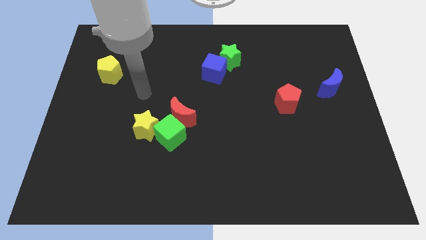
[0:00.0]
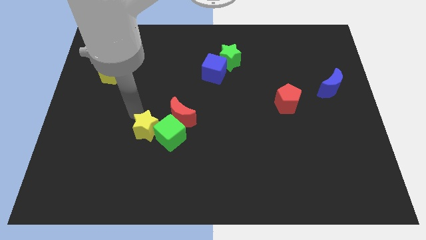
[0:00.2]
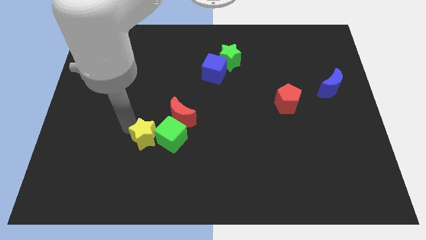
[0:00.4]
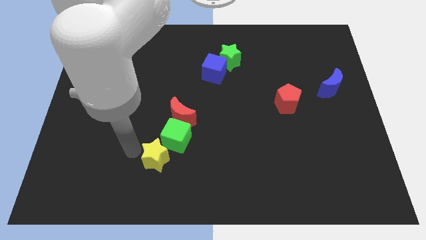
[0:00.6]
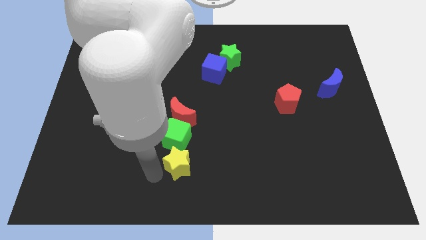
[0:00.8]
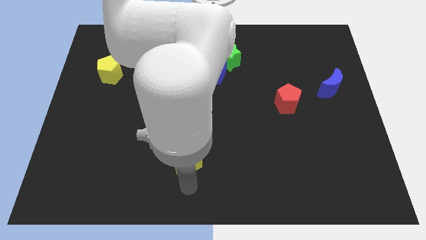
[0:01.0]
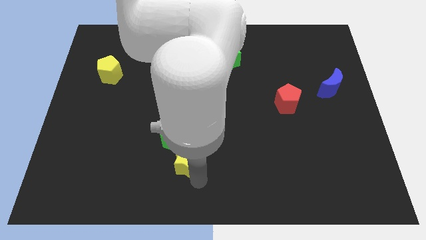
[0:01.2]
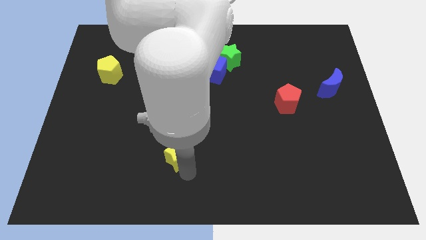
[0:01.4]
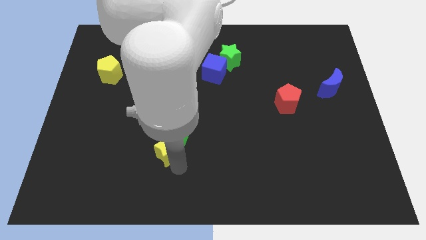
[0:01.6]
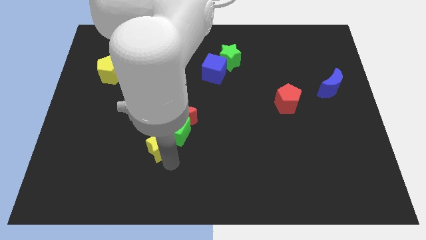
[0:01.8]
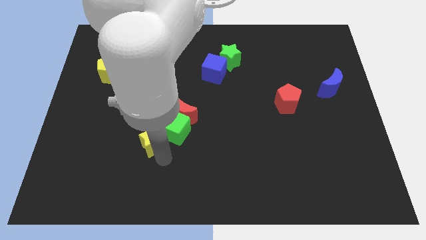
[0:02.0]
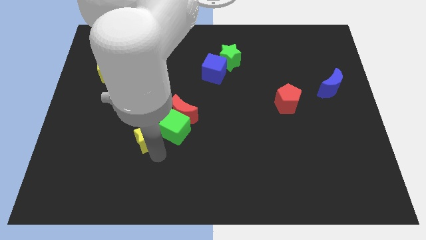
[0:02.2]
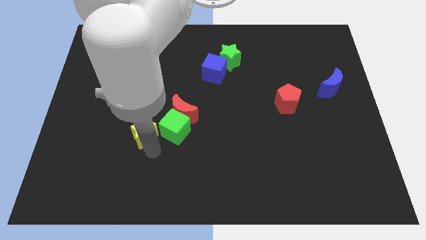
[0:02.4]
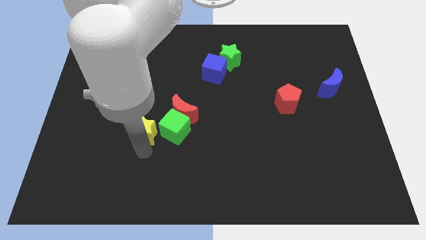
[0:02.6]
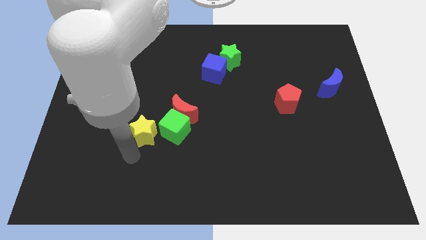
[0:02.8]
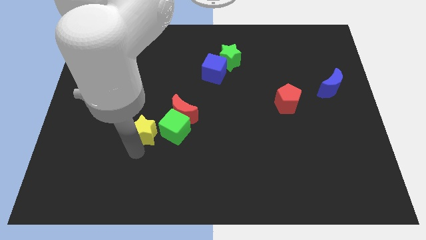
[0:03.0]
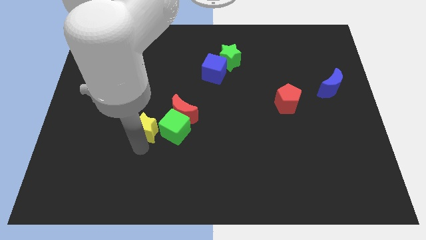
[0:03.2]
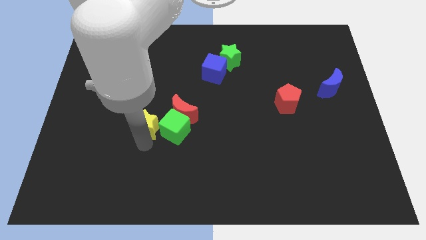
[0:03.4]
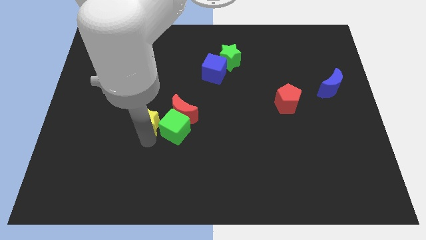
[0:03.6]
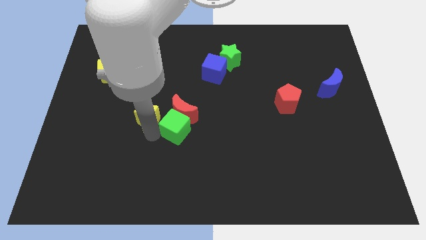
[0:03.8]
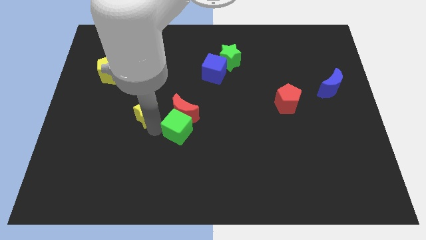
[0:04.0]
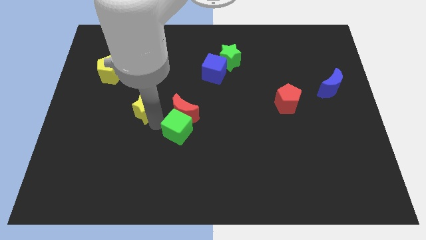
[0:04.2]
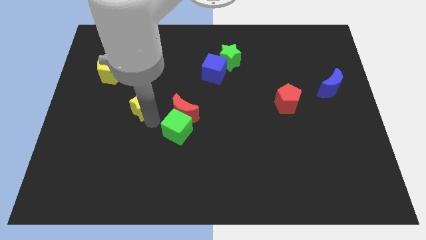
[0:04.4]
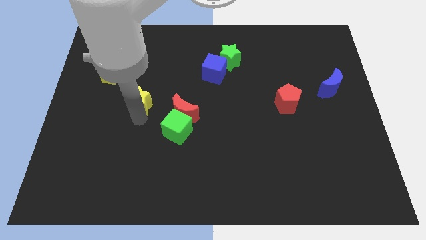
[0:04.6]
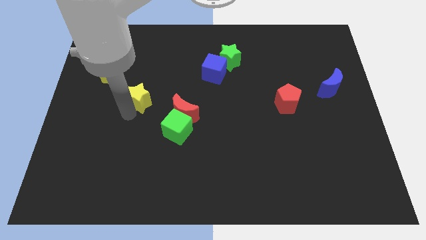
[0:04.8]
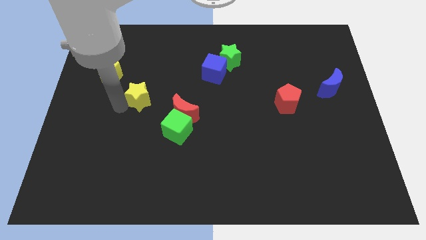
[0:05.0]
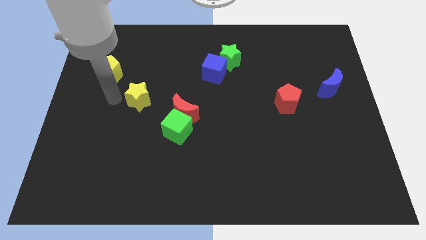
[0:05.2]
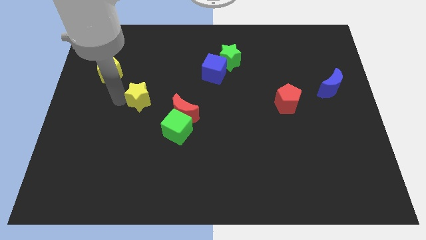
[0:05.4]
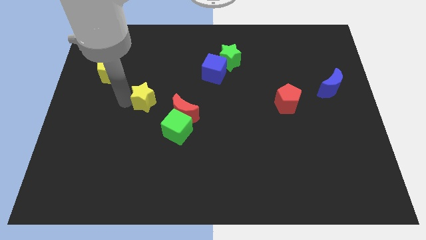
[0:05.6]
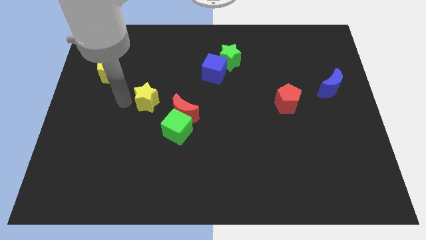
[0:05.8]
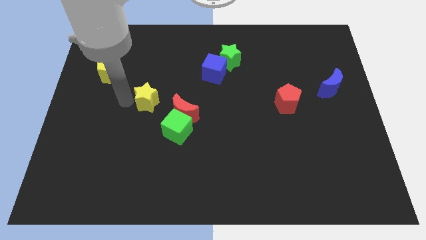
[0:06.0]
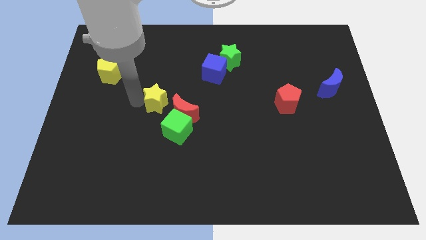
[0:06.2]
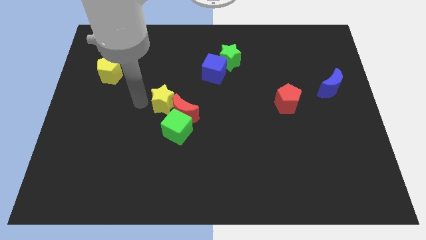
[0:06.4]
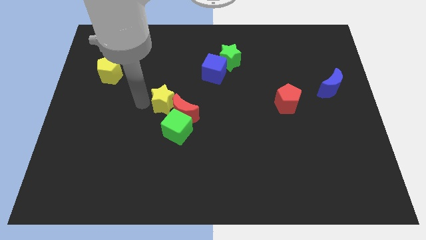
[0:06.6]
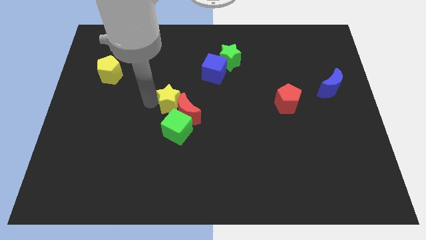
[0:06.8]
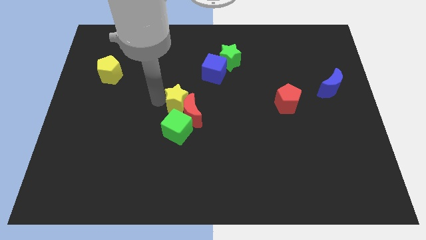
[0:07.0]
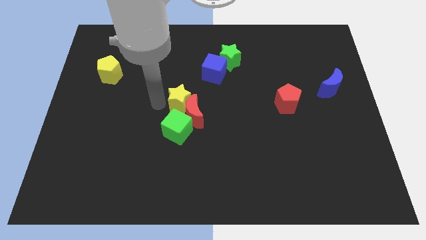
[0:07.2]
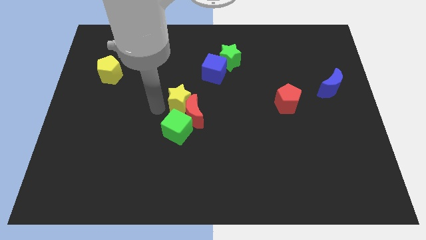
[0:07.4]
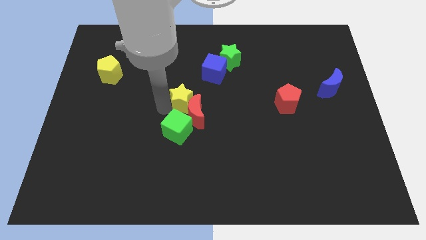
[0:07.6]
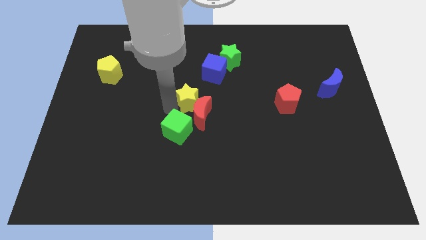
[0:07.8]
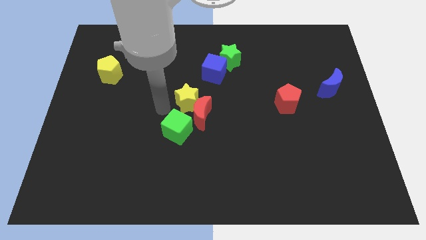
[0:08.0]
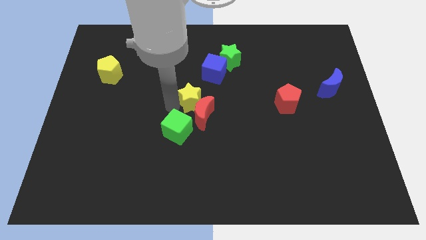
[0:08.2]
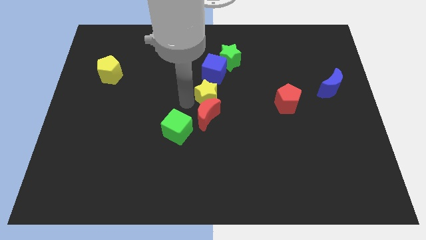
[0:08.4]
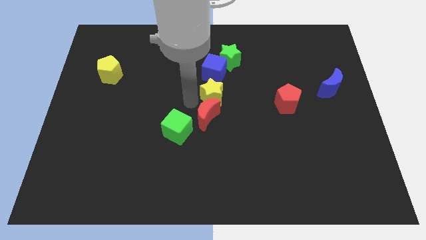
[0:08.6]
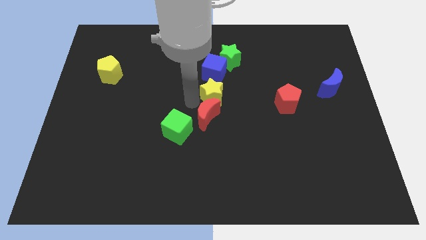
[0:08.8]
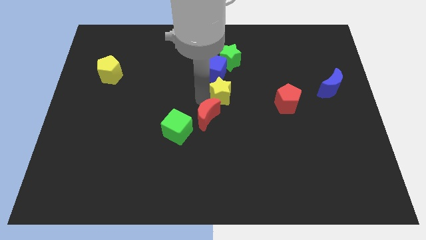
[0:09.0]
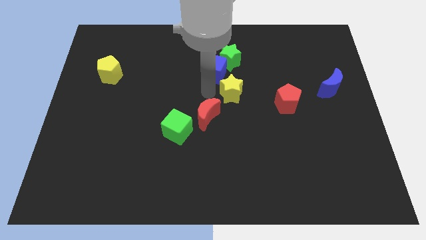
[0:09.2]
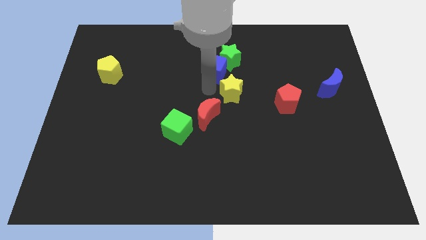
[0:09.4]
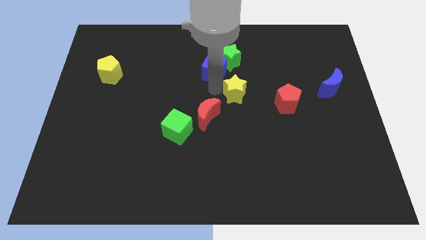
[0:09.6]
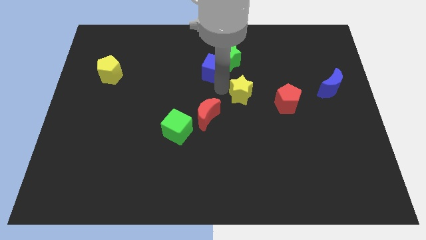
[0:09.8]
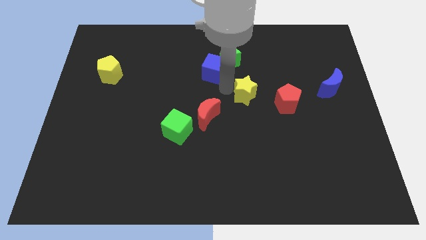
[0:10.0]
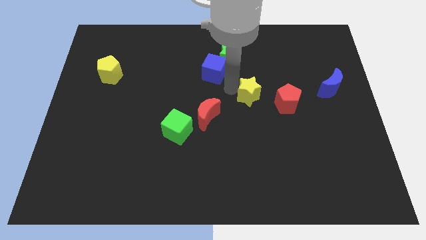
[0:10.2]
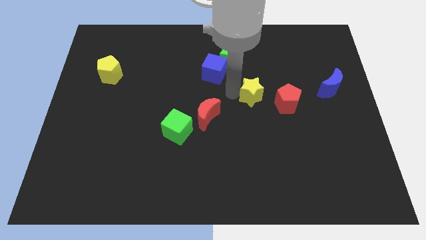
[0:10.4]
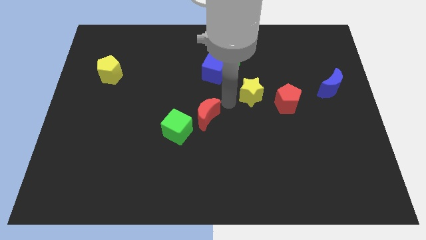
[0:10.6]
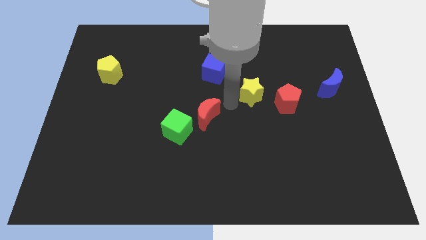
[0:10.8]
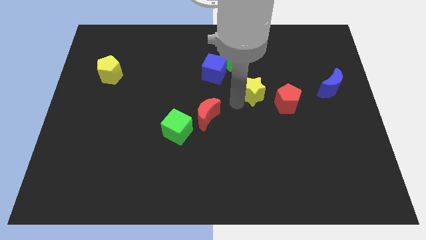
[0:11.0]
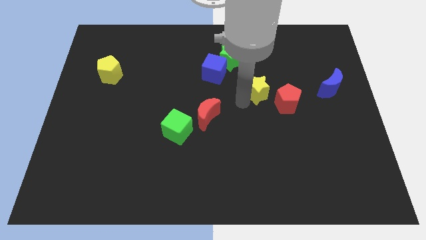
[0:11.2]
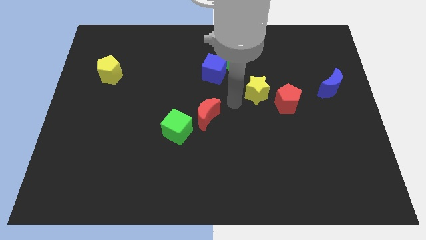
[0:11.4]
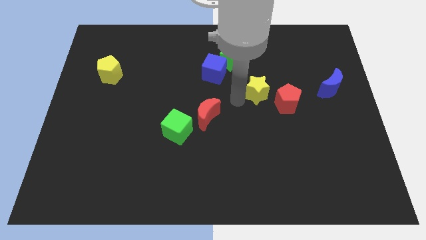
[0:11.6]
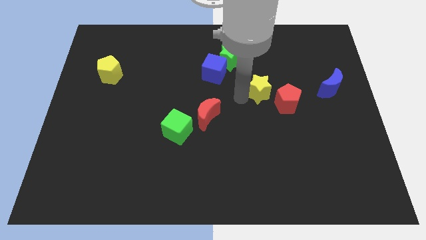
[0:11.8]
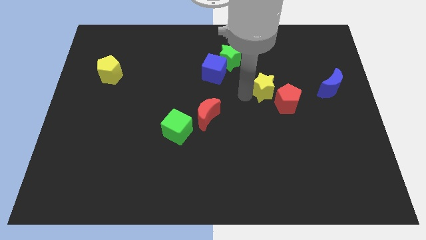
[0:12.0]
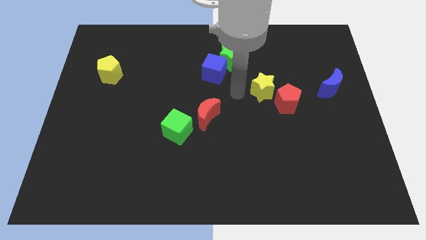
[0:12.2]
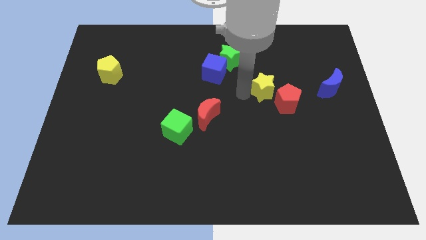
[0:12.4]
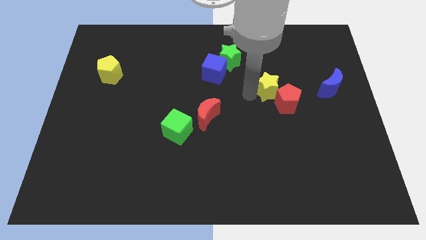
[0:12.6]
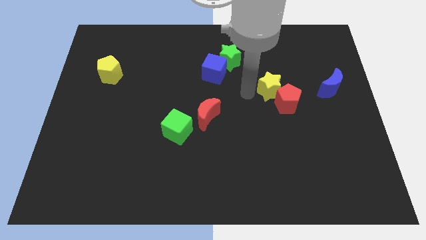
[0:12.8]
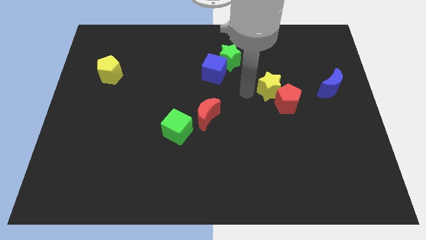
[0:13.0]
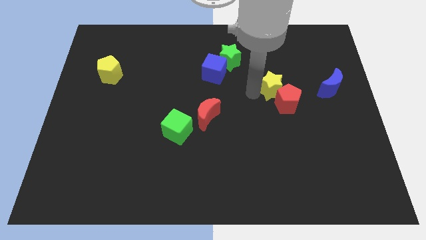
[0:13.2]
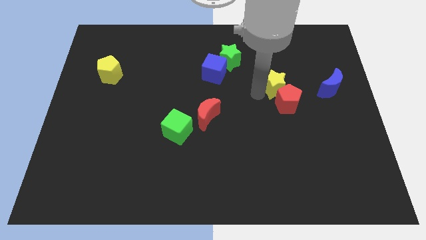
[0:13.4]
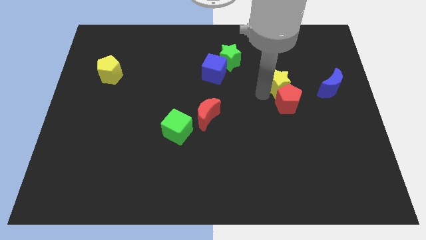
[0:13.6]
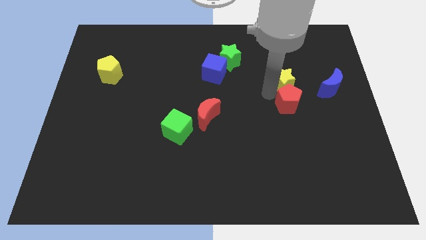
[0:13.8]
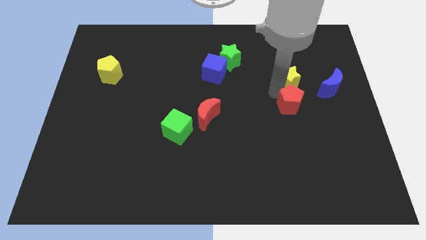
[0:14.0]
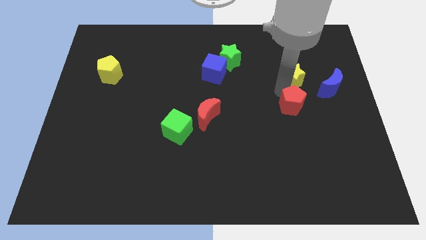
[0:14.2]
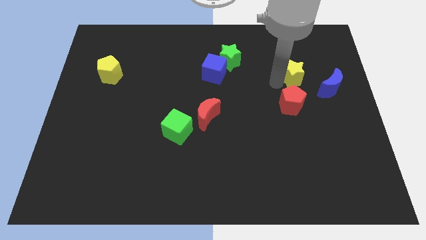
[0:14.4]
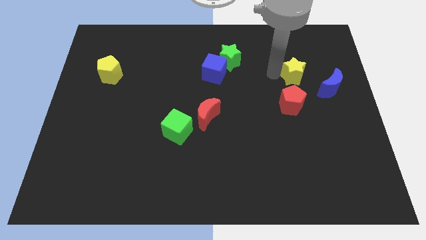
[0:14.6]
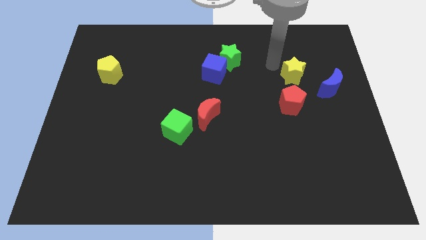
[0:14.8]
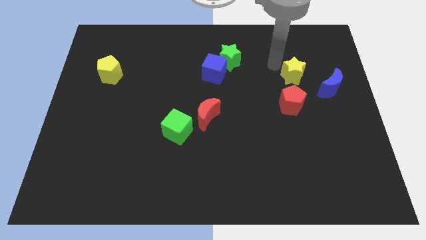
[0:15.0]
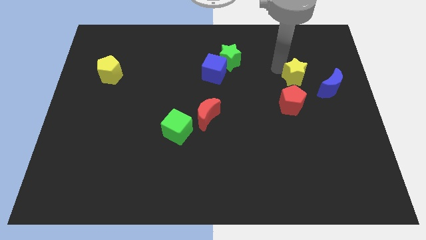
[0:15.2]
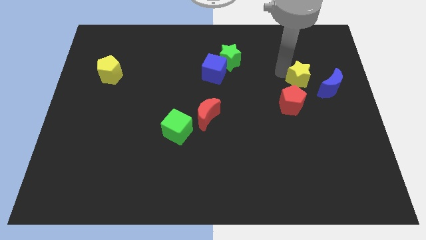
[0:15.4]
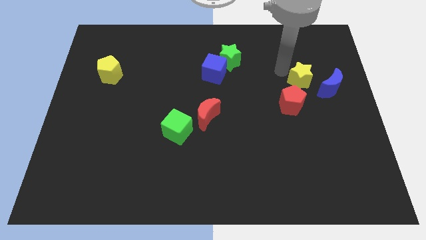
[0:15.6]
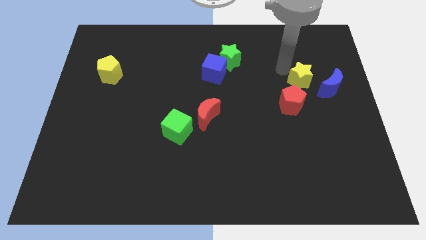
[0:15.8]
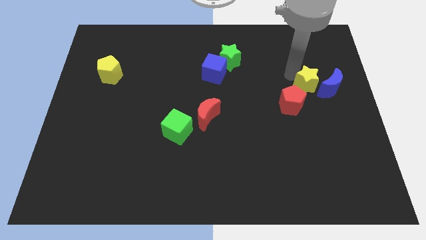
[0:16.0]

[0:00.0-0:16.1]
push the yellow star close to the blue moon
